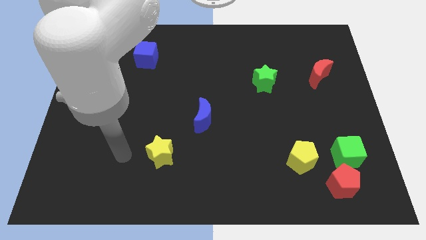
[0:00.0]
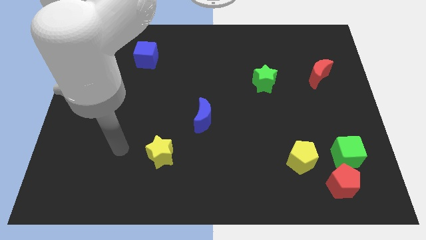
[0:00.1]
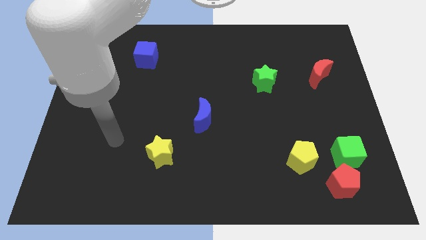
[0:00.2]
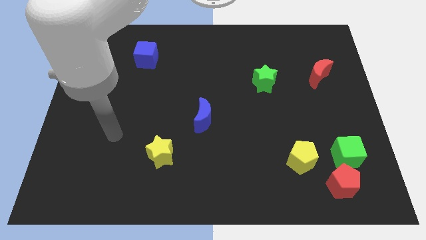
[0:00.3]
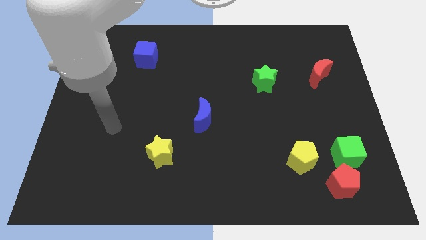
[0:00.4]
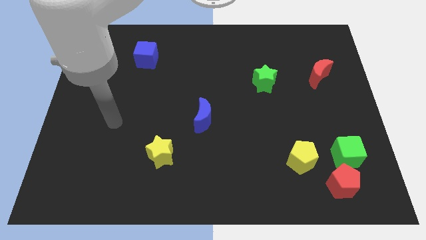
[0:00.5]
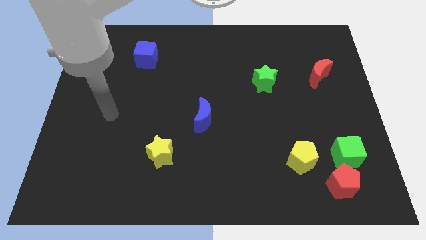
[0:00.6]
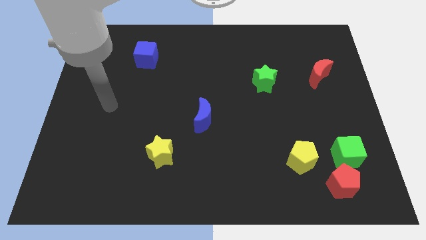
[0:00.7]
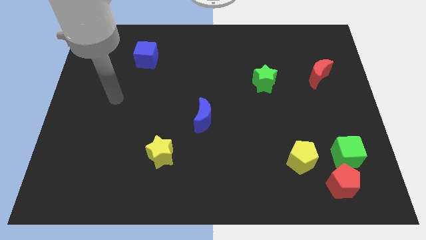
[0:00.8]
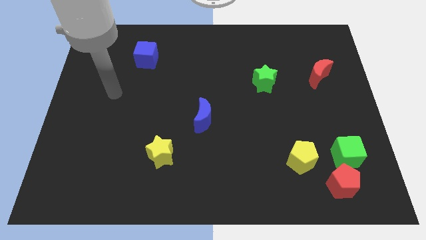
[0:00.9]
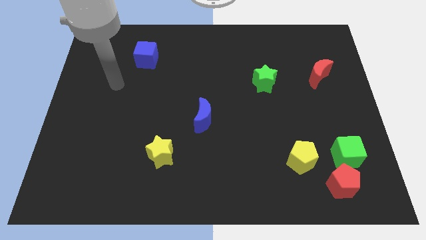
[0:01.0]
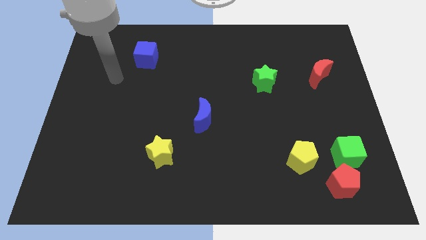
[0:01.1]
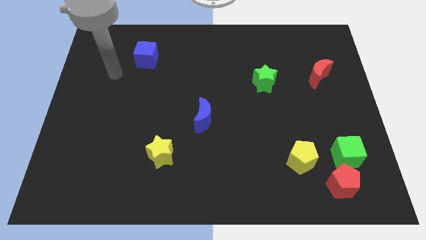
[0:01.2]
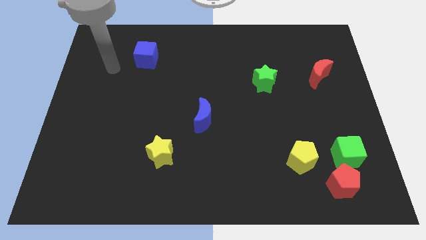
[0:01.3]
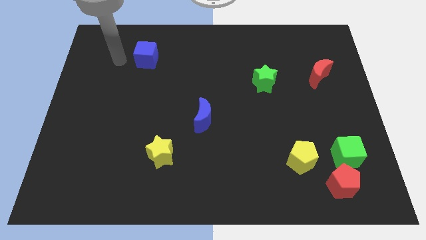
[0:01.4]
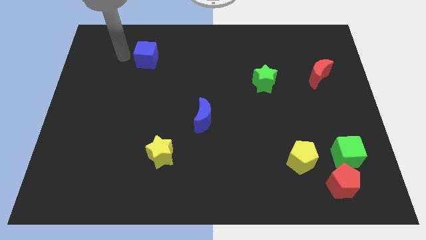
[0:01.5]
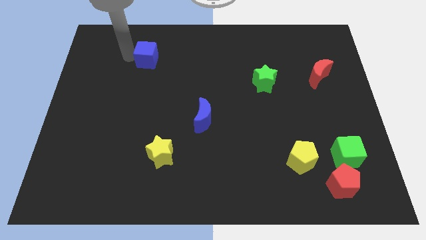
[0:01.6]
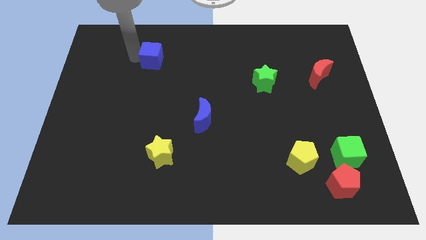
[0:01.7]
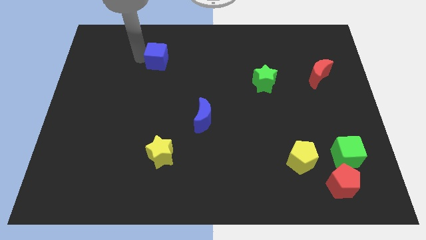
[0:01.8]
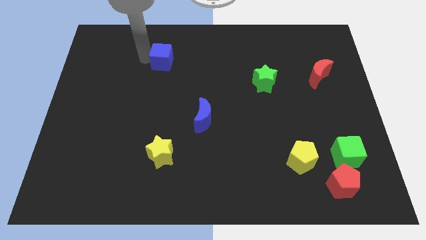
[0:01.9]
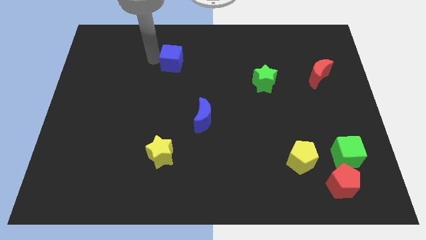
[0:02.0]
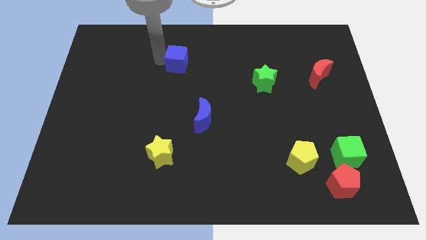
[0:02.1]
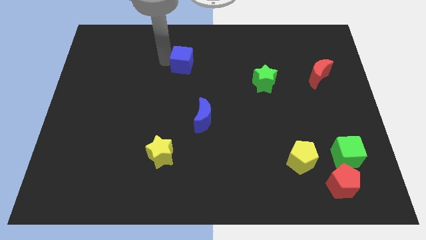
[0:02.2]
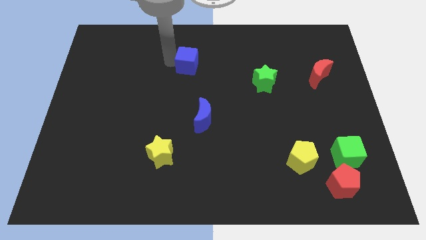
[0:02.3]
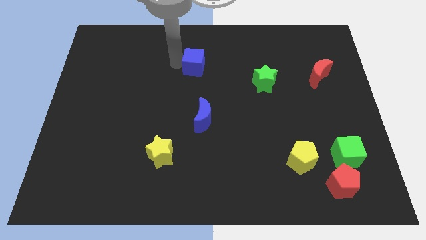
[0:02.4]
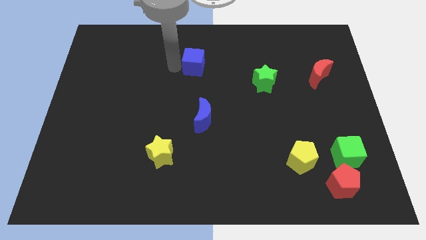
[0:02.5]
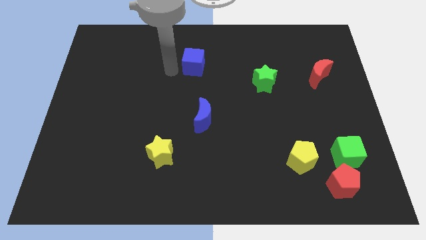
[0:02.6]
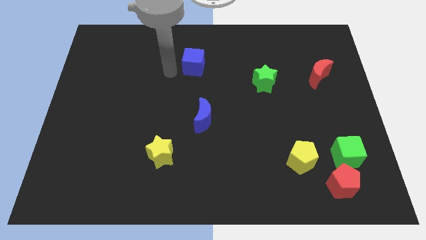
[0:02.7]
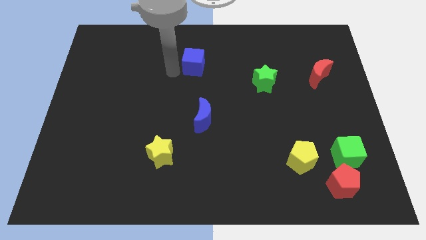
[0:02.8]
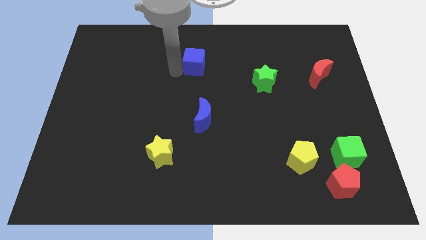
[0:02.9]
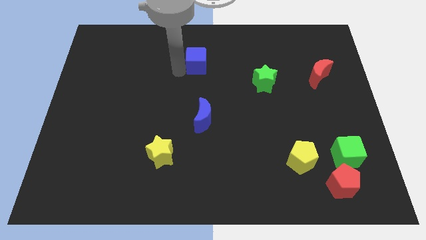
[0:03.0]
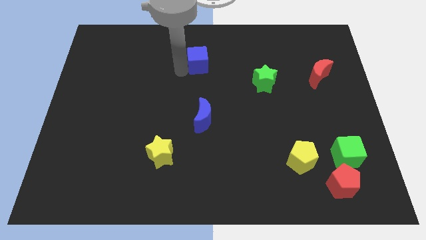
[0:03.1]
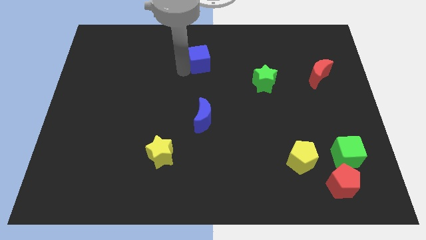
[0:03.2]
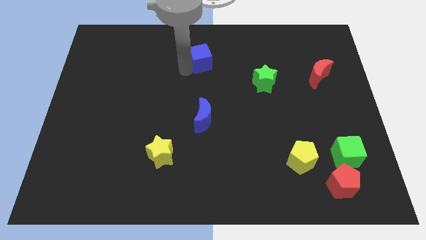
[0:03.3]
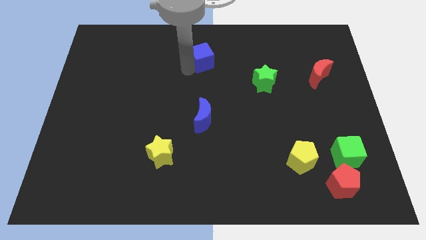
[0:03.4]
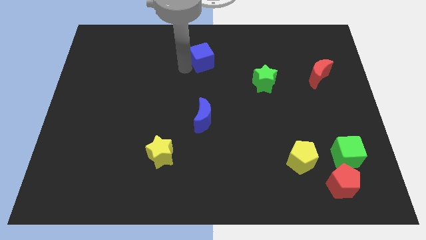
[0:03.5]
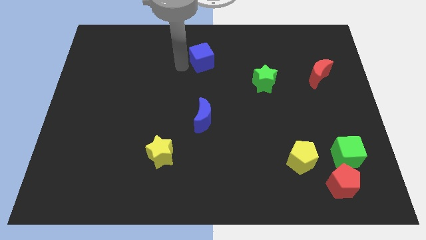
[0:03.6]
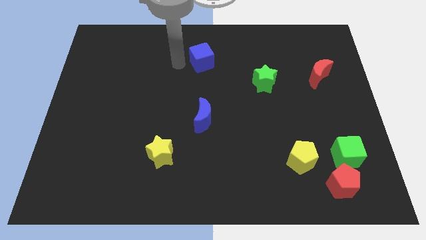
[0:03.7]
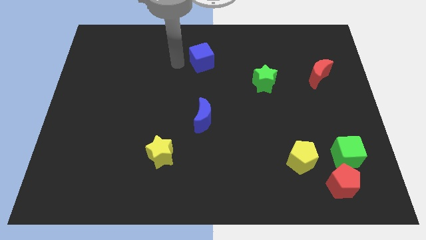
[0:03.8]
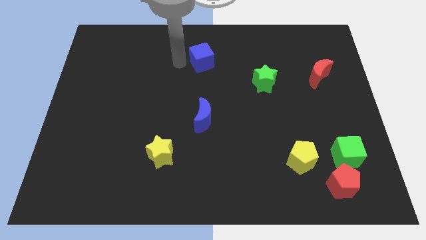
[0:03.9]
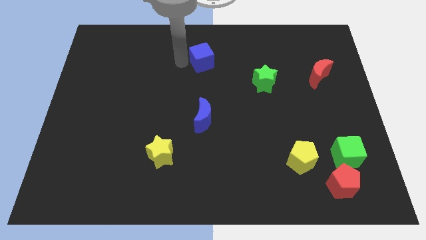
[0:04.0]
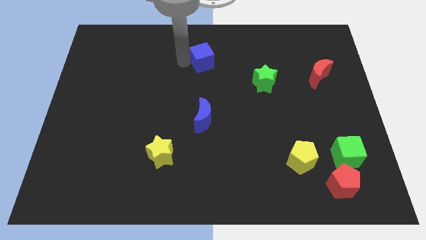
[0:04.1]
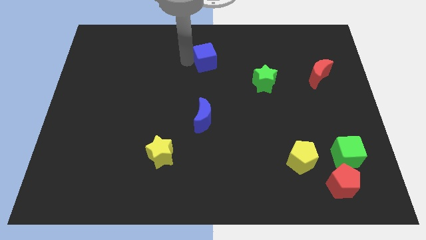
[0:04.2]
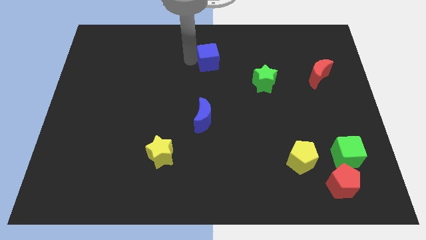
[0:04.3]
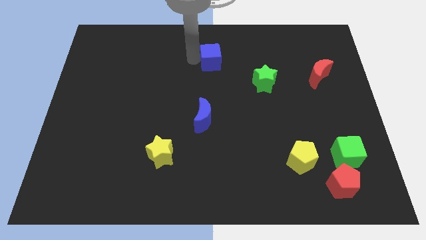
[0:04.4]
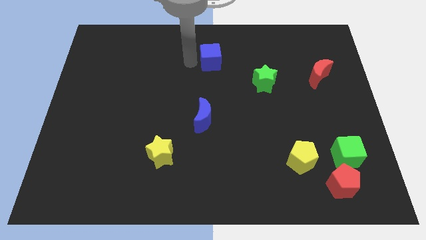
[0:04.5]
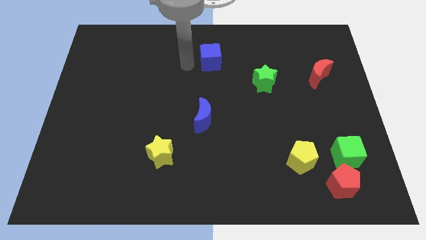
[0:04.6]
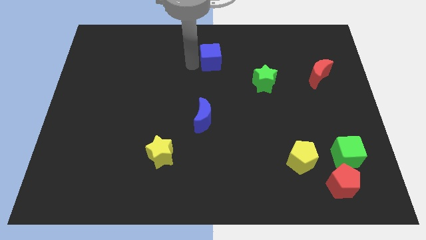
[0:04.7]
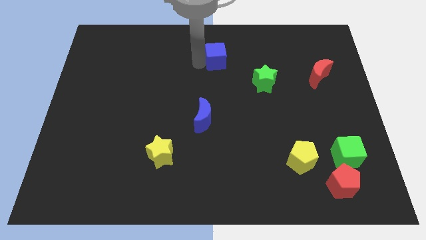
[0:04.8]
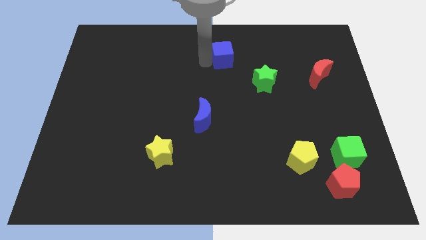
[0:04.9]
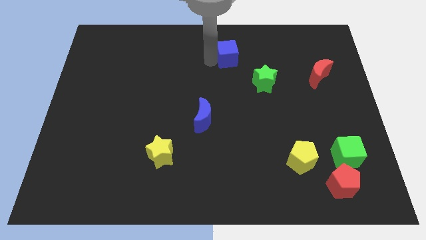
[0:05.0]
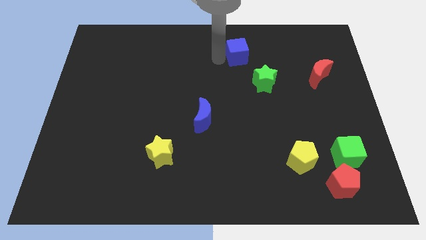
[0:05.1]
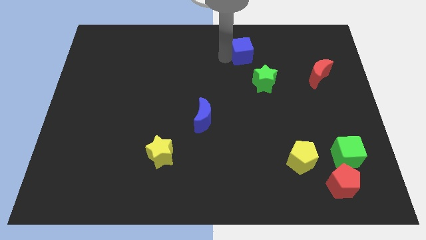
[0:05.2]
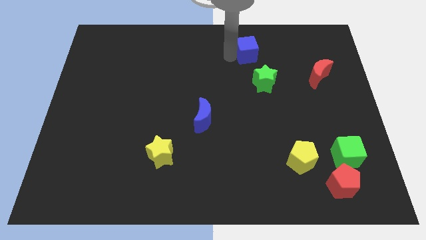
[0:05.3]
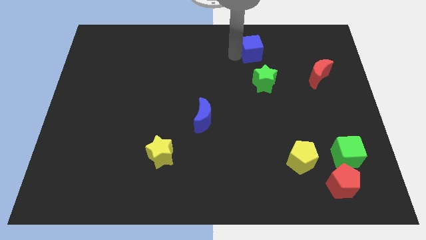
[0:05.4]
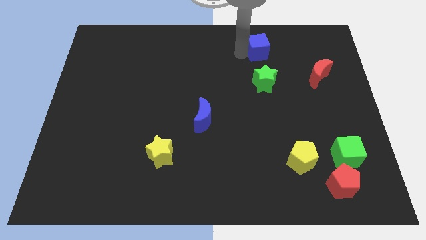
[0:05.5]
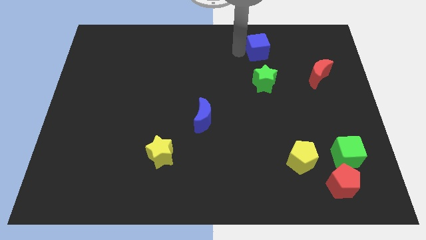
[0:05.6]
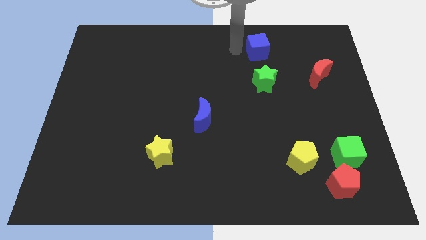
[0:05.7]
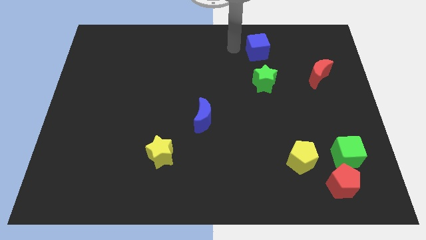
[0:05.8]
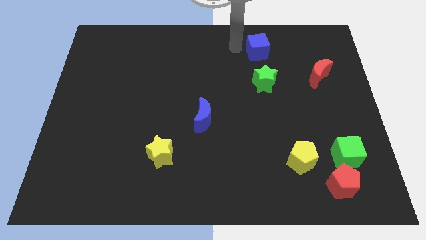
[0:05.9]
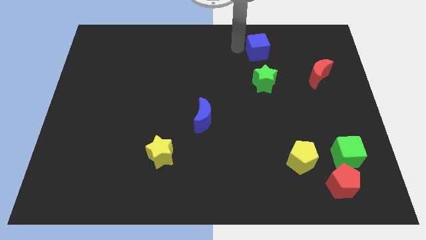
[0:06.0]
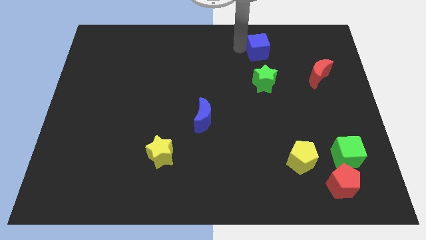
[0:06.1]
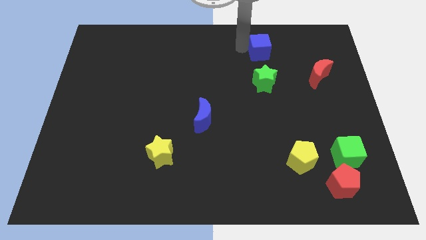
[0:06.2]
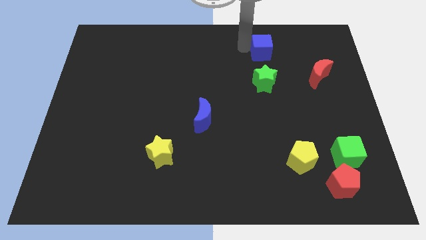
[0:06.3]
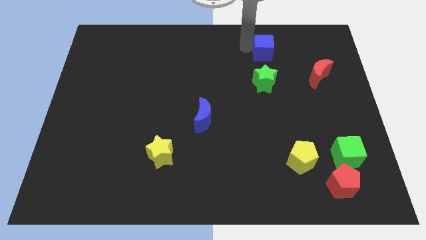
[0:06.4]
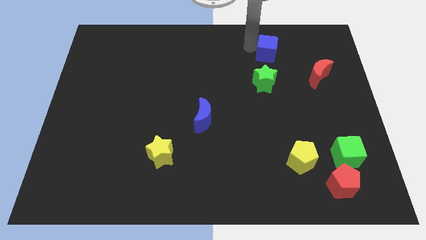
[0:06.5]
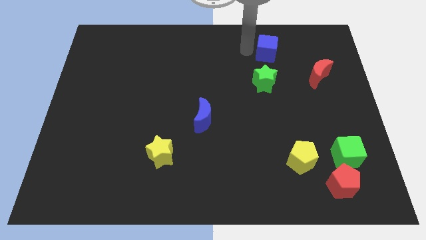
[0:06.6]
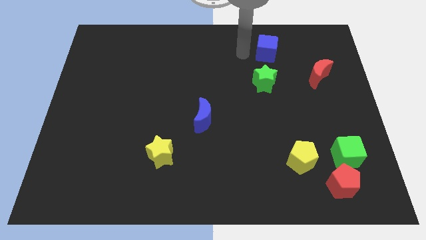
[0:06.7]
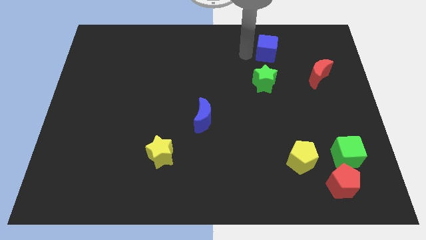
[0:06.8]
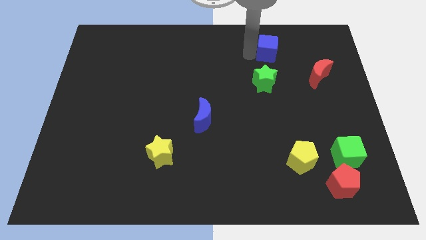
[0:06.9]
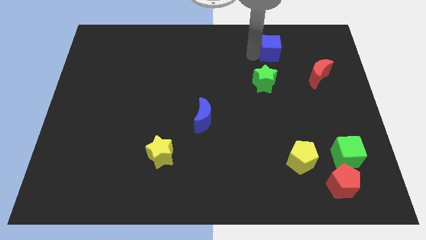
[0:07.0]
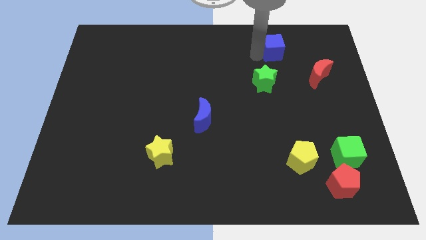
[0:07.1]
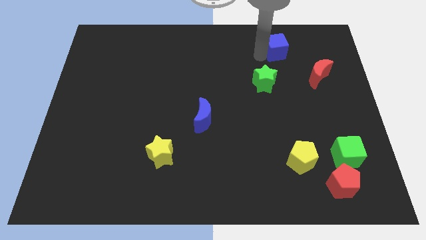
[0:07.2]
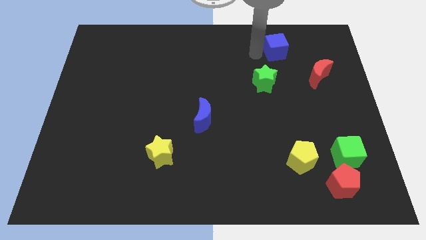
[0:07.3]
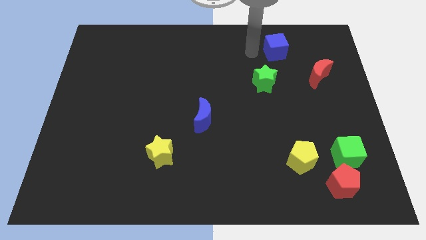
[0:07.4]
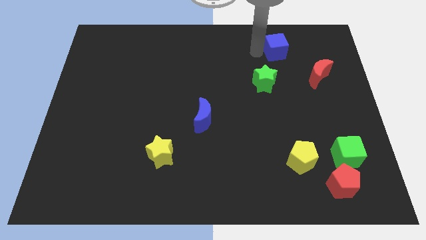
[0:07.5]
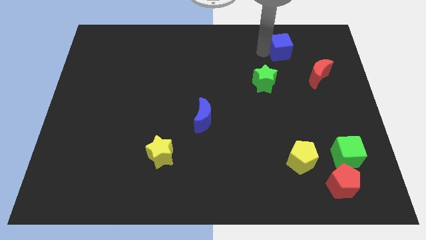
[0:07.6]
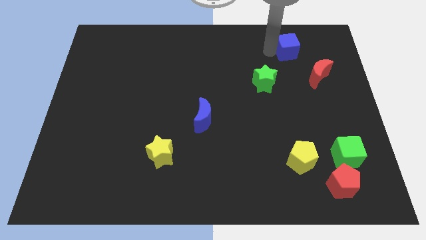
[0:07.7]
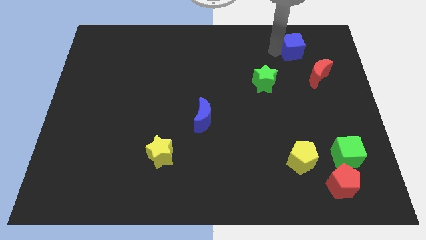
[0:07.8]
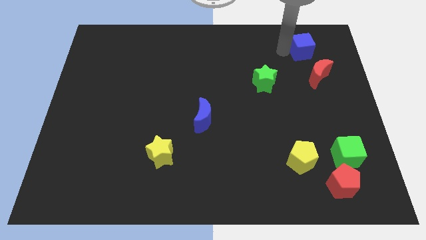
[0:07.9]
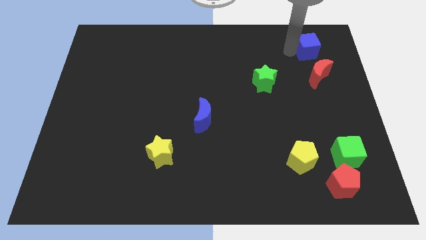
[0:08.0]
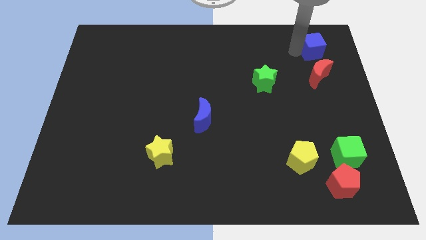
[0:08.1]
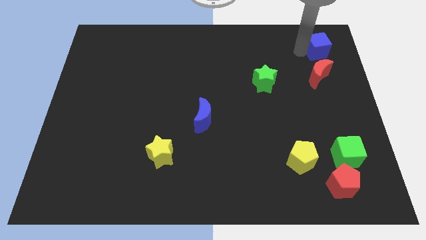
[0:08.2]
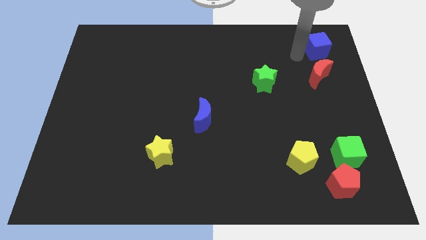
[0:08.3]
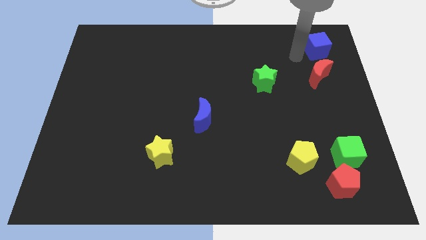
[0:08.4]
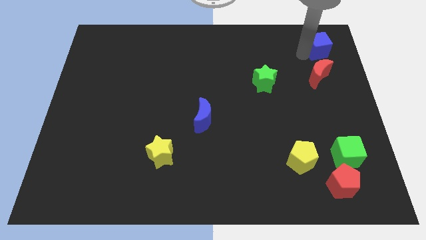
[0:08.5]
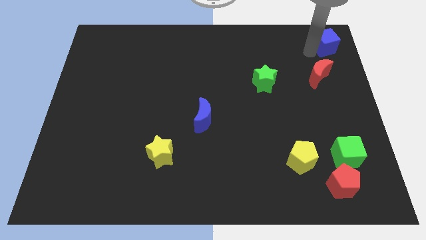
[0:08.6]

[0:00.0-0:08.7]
push the blue cube to the top right of the board
